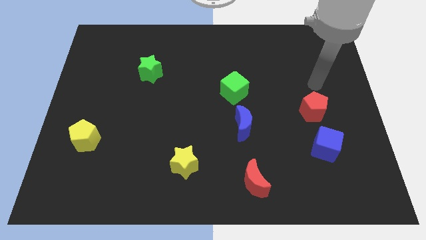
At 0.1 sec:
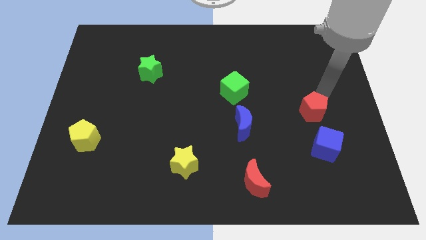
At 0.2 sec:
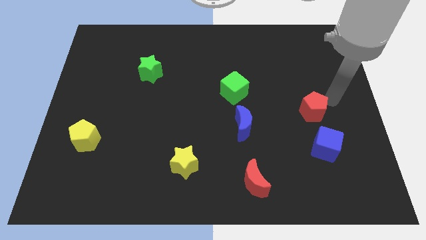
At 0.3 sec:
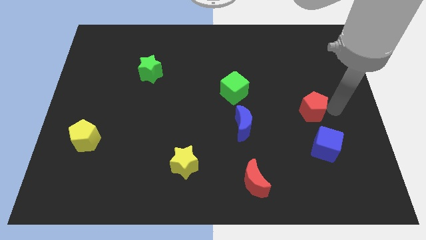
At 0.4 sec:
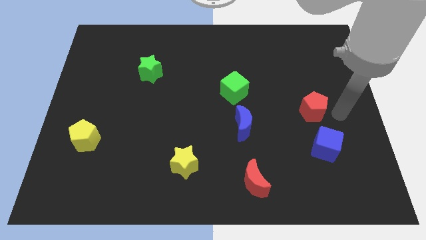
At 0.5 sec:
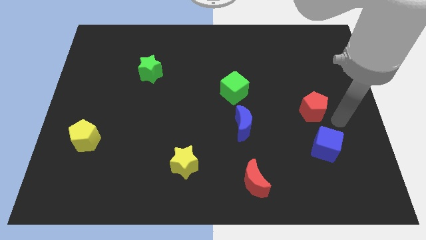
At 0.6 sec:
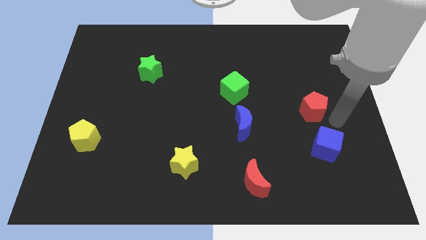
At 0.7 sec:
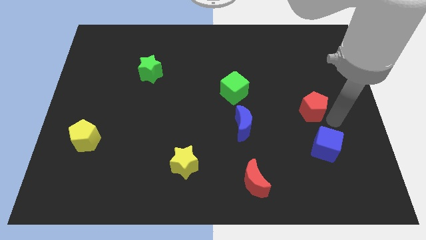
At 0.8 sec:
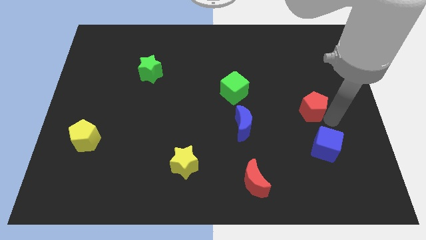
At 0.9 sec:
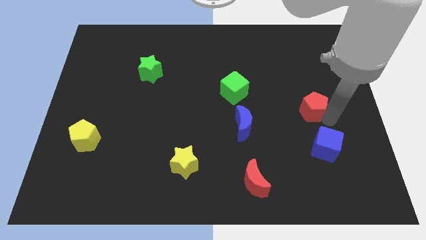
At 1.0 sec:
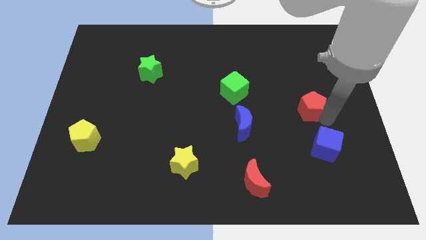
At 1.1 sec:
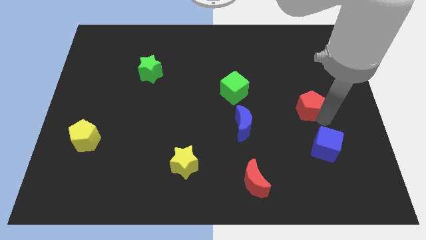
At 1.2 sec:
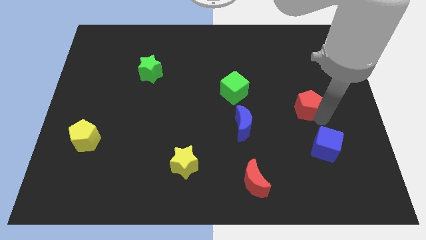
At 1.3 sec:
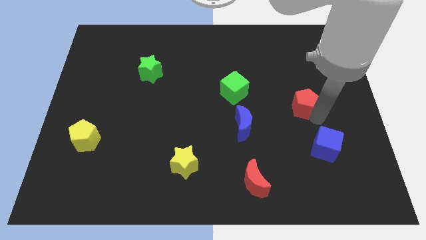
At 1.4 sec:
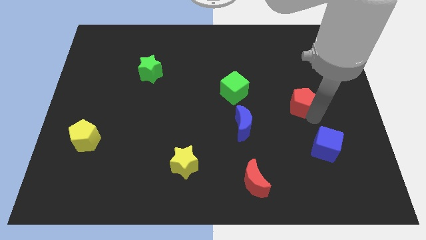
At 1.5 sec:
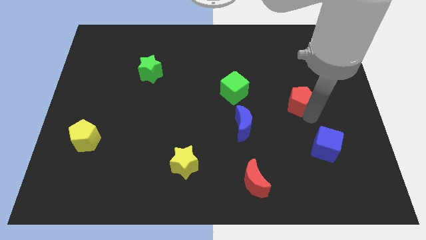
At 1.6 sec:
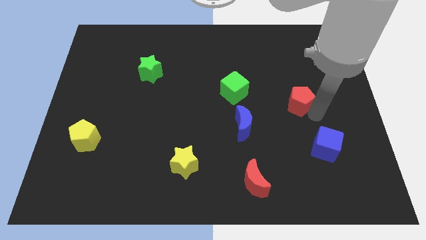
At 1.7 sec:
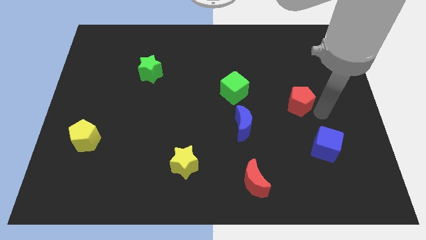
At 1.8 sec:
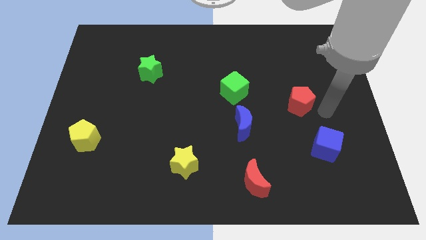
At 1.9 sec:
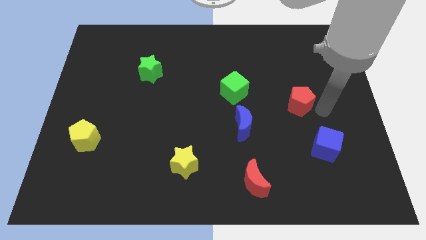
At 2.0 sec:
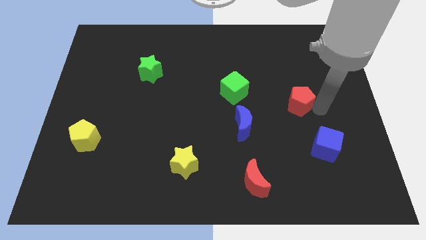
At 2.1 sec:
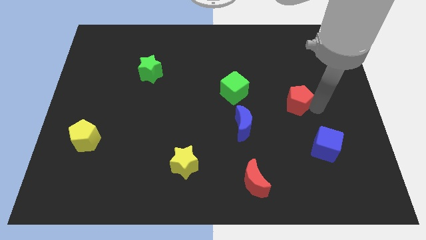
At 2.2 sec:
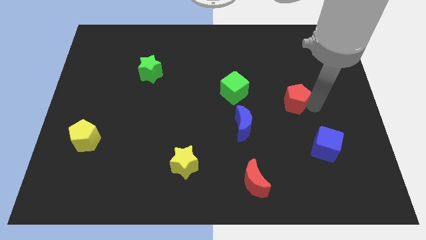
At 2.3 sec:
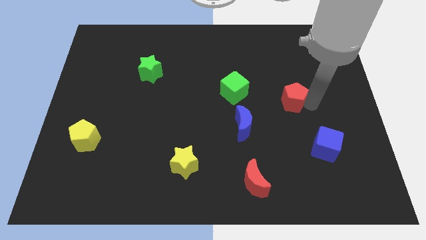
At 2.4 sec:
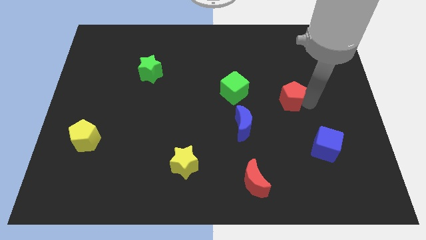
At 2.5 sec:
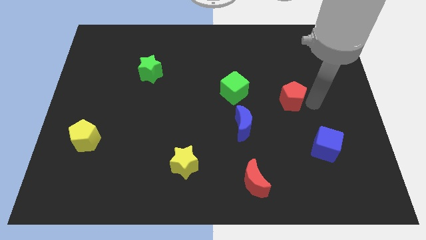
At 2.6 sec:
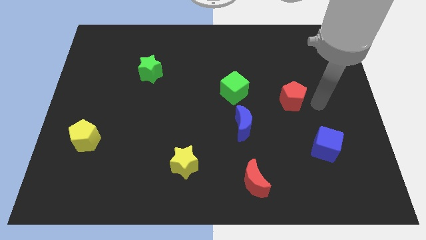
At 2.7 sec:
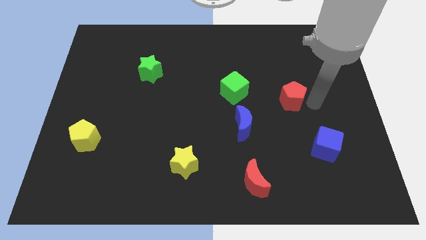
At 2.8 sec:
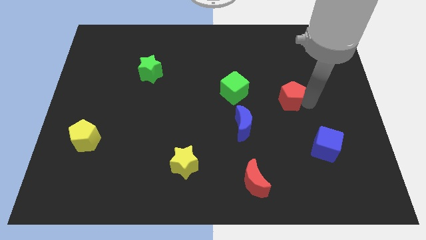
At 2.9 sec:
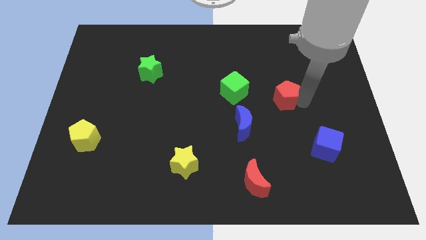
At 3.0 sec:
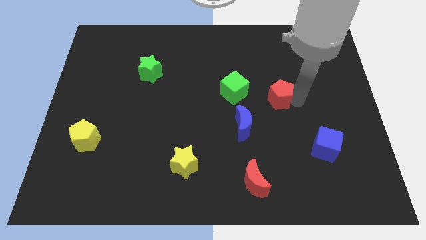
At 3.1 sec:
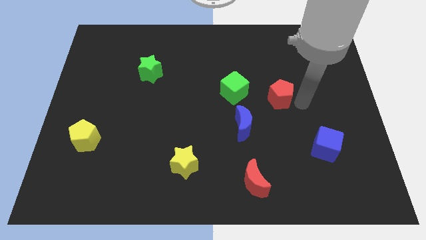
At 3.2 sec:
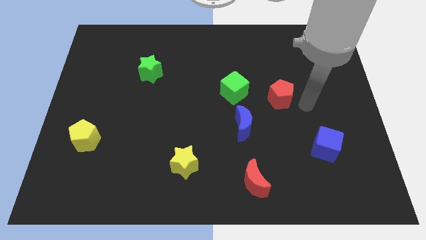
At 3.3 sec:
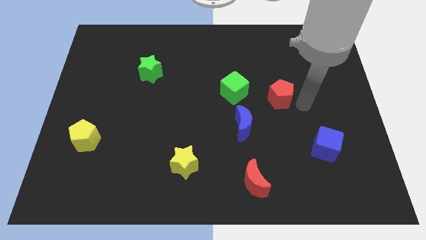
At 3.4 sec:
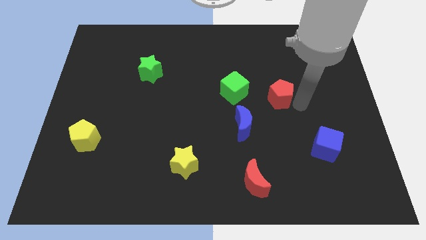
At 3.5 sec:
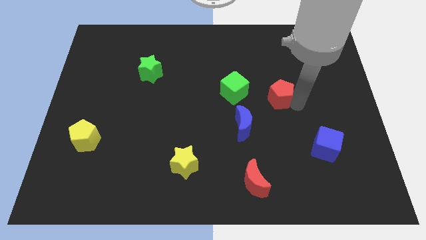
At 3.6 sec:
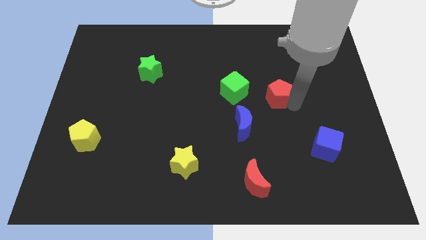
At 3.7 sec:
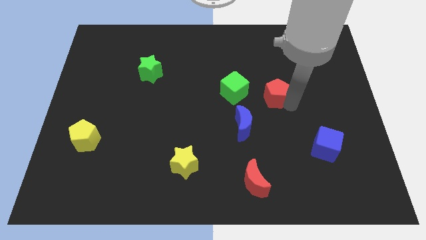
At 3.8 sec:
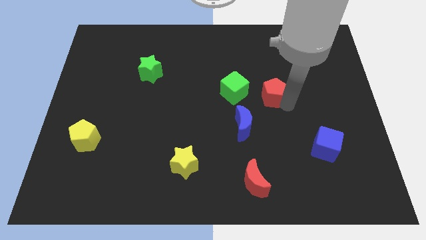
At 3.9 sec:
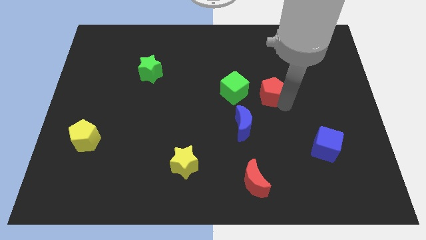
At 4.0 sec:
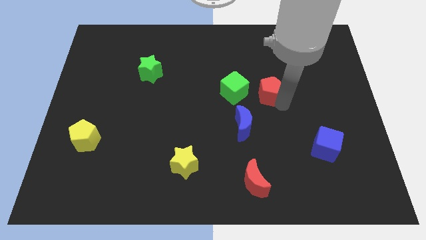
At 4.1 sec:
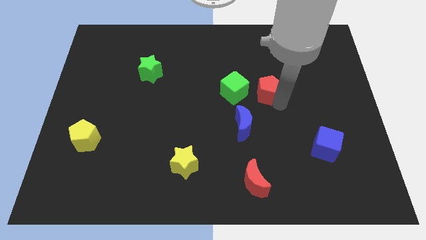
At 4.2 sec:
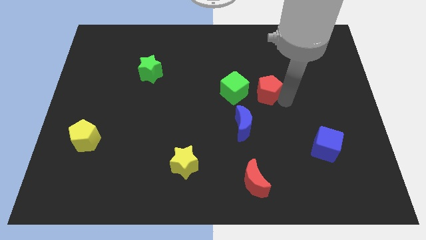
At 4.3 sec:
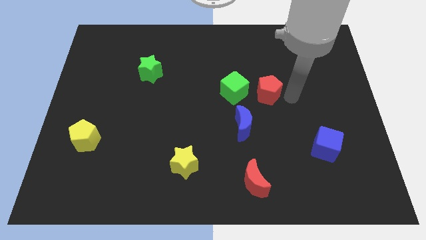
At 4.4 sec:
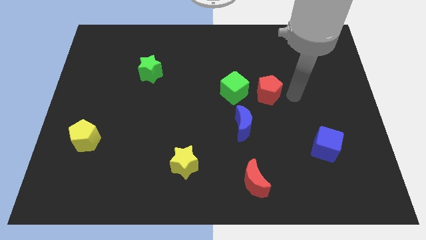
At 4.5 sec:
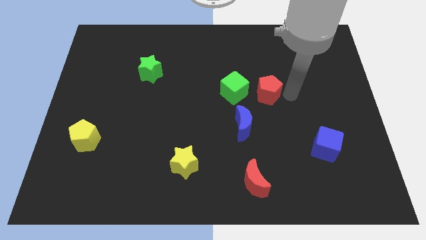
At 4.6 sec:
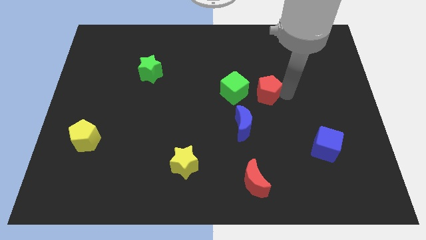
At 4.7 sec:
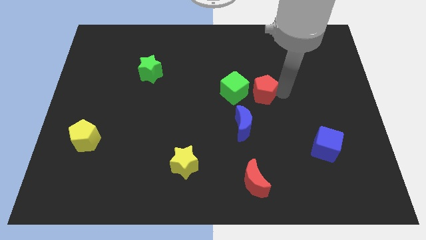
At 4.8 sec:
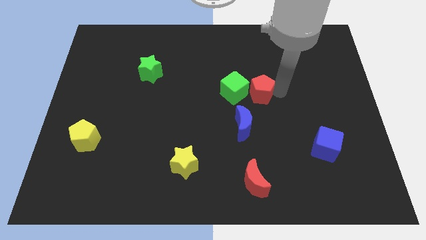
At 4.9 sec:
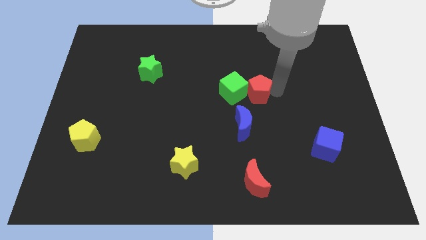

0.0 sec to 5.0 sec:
push the red pentagon to the green cube

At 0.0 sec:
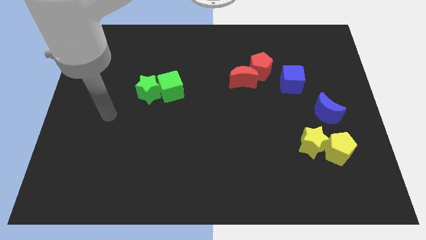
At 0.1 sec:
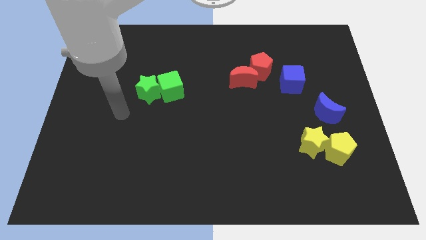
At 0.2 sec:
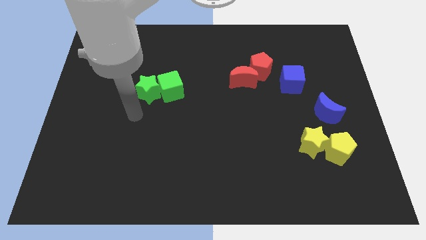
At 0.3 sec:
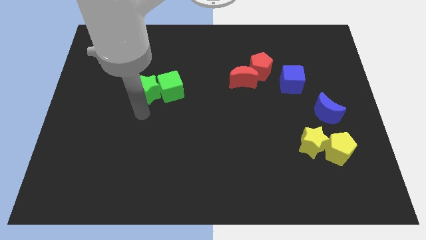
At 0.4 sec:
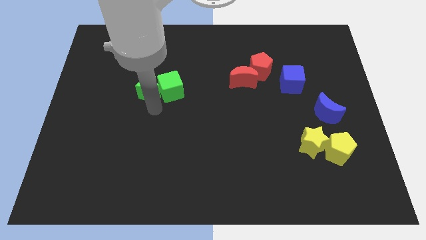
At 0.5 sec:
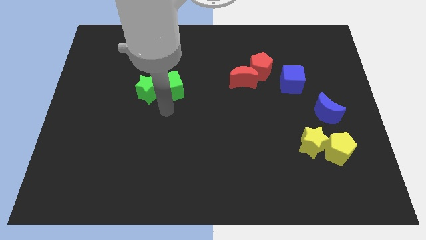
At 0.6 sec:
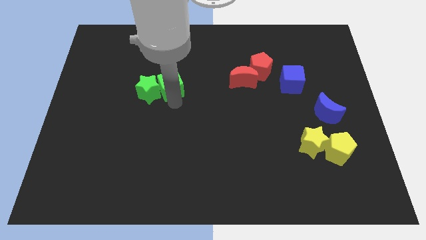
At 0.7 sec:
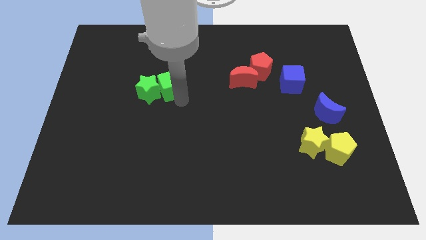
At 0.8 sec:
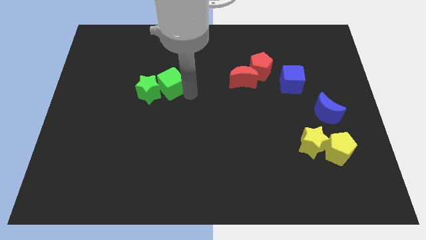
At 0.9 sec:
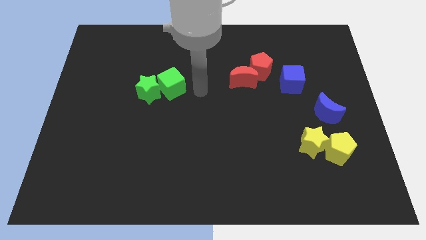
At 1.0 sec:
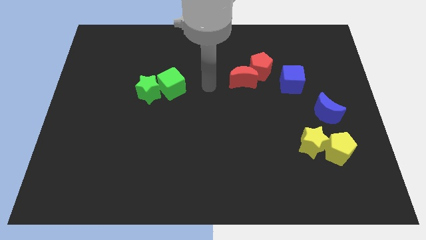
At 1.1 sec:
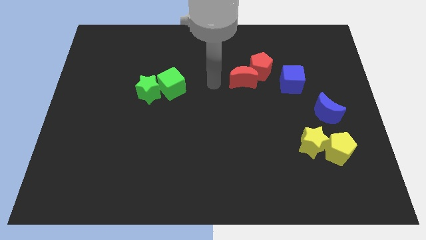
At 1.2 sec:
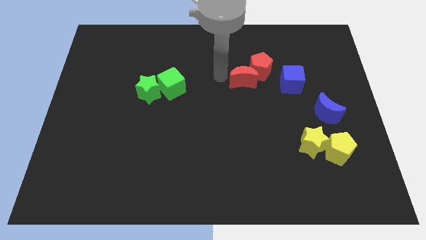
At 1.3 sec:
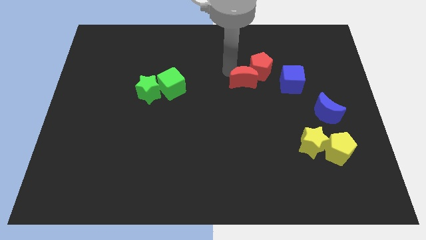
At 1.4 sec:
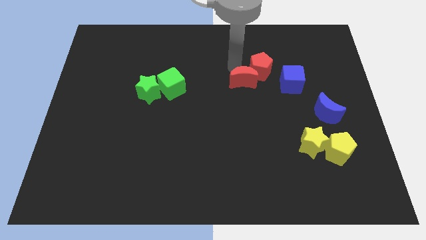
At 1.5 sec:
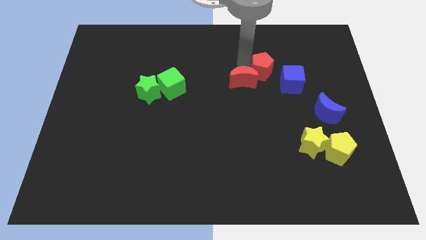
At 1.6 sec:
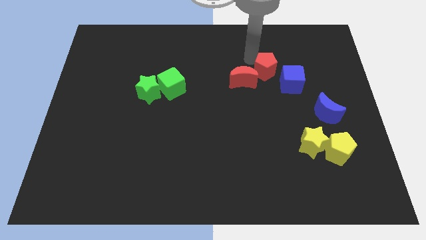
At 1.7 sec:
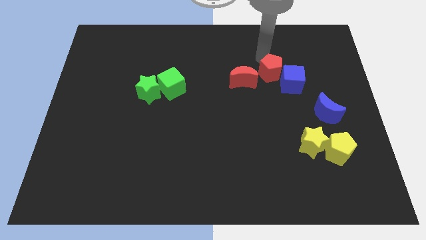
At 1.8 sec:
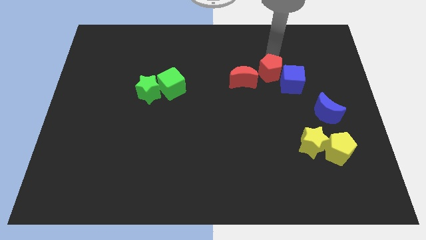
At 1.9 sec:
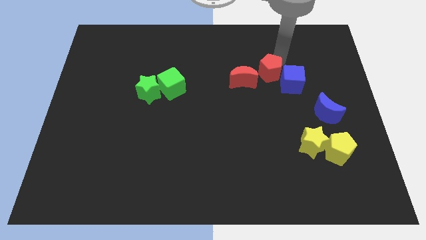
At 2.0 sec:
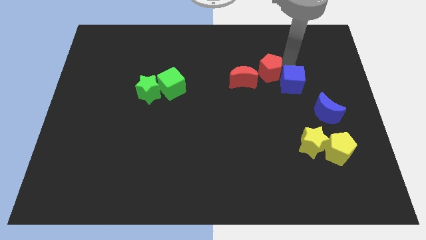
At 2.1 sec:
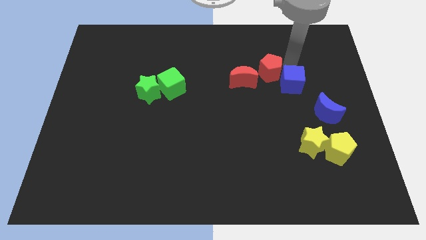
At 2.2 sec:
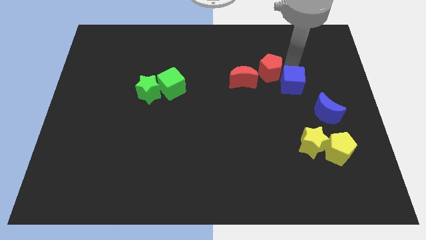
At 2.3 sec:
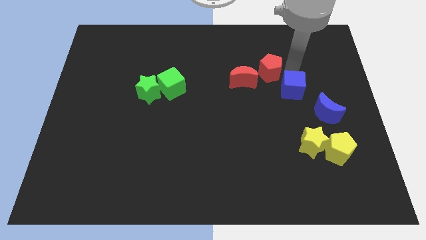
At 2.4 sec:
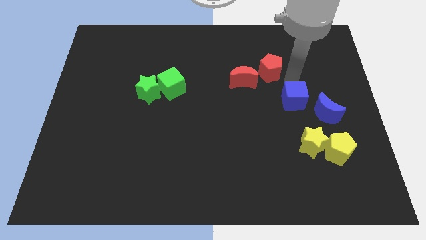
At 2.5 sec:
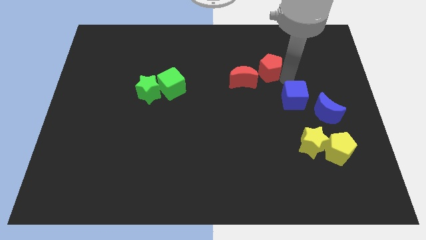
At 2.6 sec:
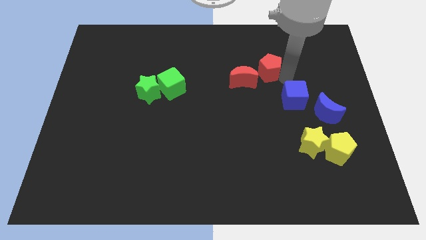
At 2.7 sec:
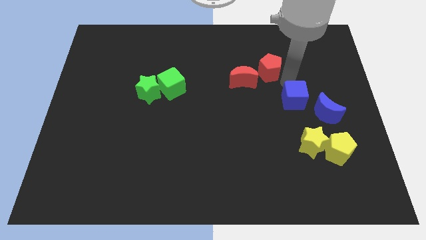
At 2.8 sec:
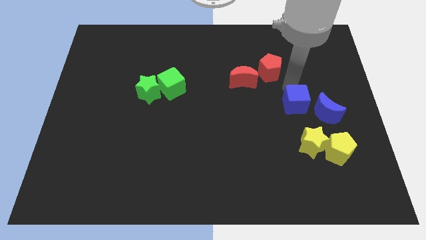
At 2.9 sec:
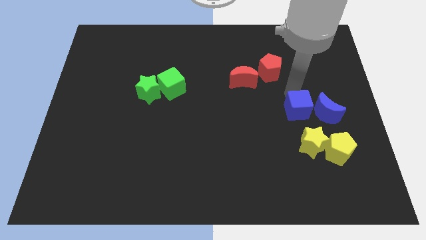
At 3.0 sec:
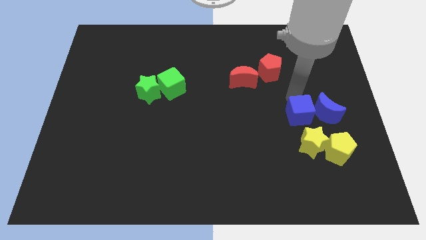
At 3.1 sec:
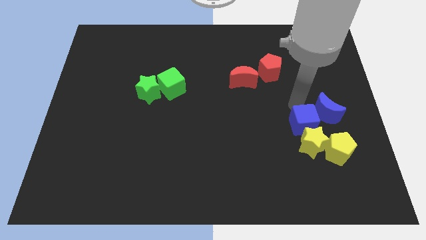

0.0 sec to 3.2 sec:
slide the blue cube close to the yellow star
